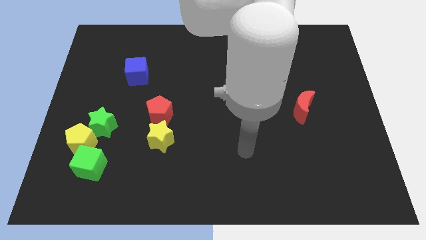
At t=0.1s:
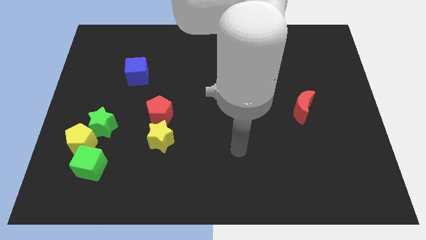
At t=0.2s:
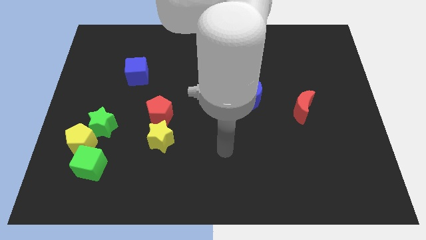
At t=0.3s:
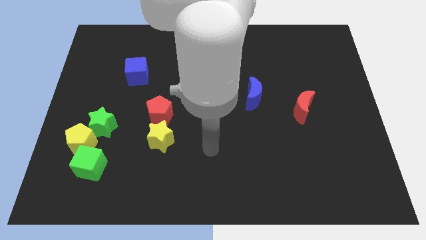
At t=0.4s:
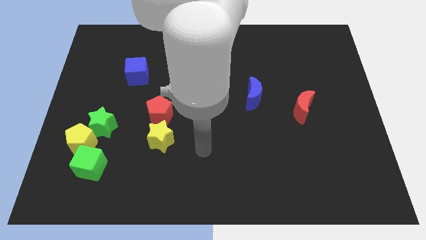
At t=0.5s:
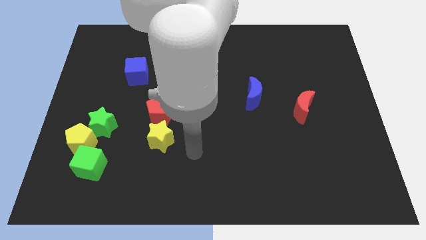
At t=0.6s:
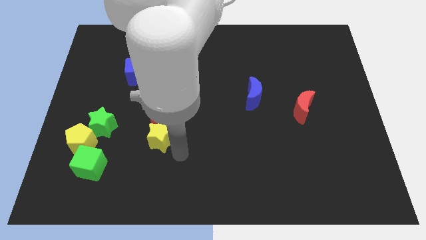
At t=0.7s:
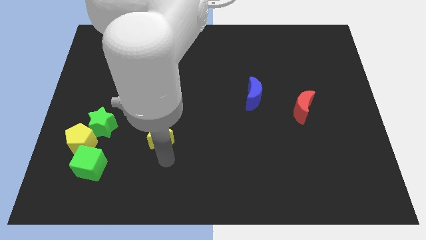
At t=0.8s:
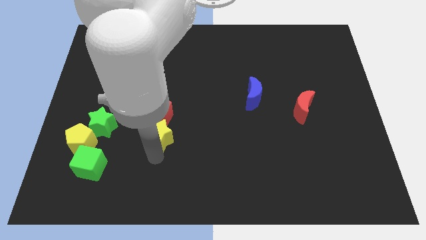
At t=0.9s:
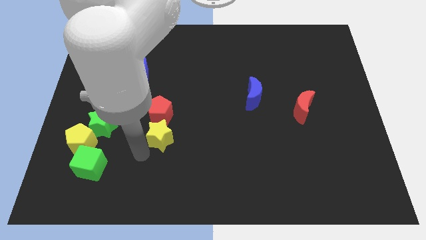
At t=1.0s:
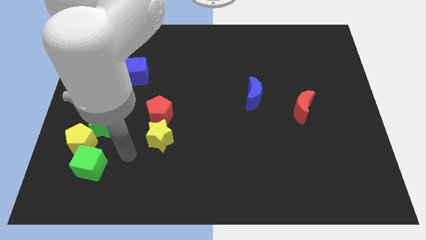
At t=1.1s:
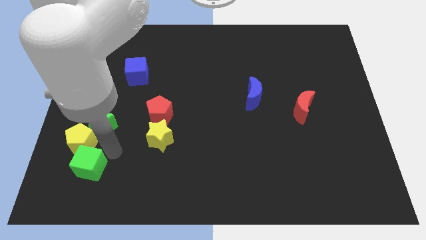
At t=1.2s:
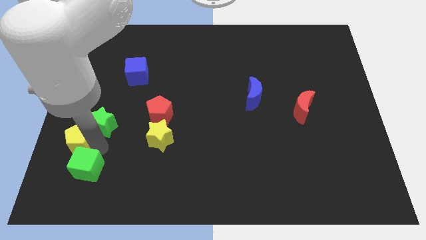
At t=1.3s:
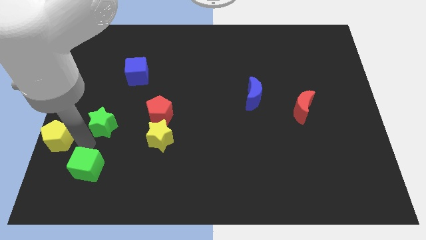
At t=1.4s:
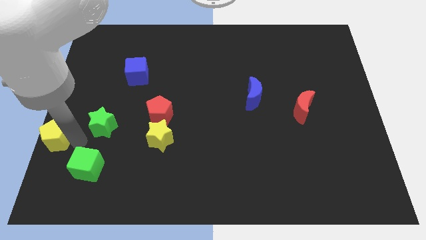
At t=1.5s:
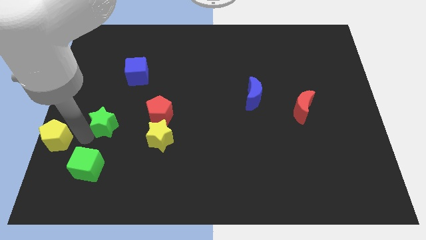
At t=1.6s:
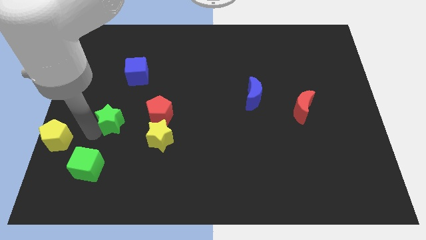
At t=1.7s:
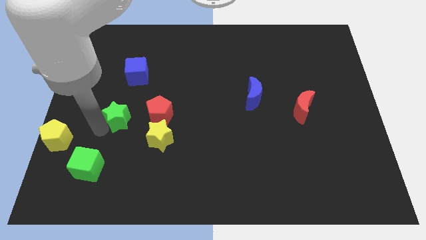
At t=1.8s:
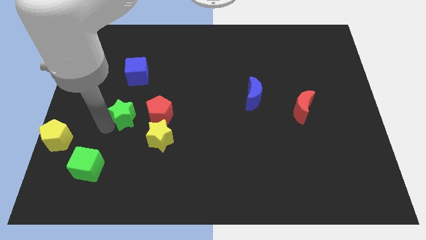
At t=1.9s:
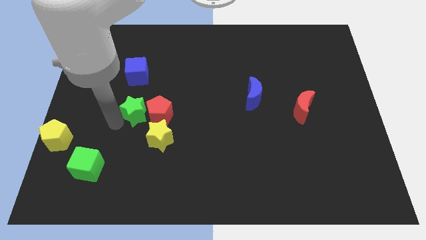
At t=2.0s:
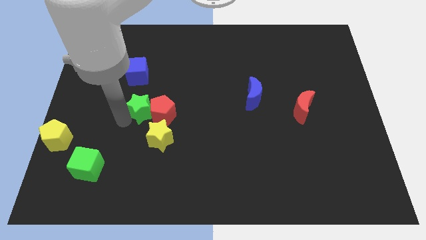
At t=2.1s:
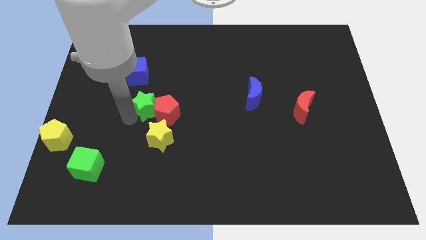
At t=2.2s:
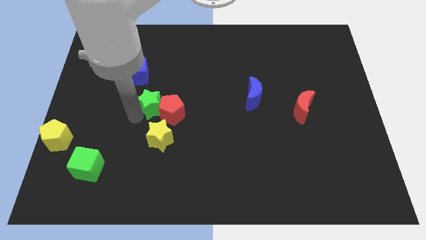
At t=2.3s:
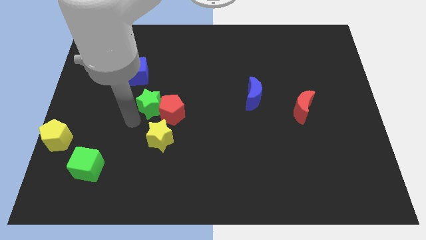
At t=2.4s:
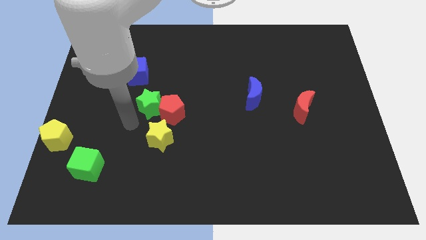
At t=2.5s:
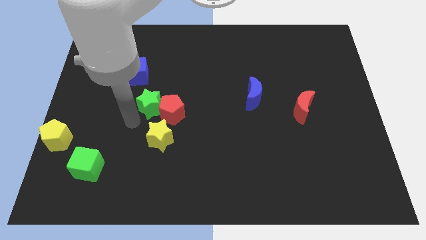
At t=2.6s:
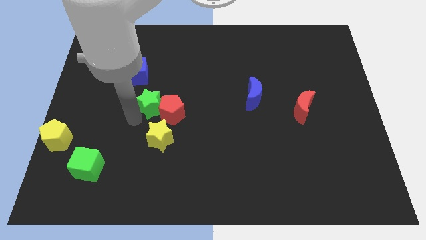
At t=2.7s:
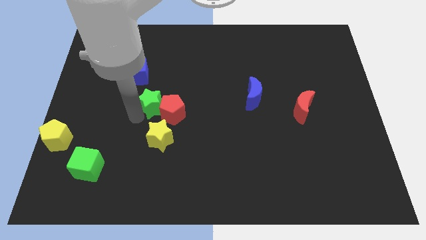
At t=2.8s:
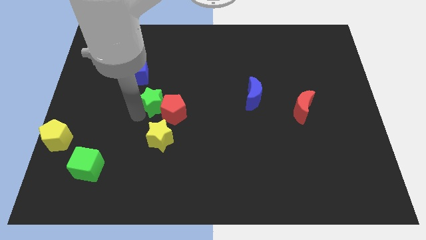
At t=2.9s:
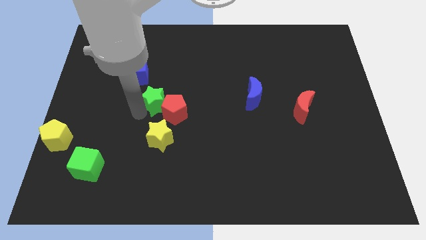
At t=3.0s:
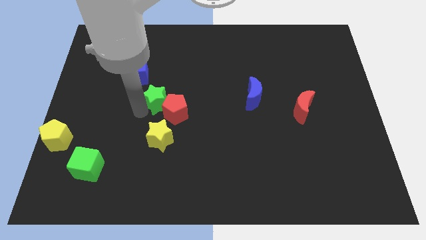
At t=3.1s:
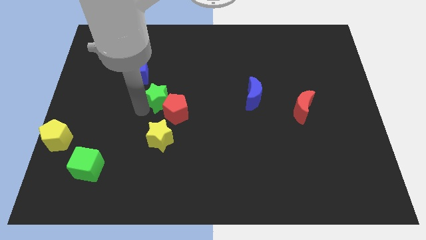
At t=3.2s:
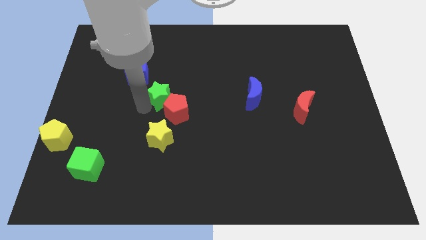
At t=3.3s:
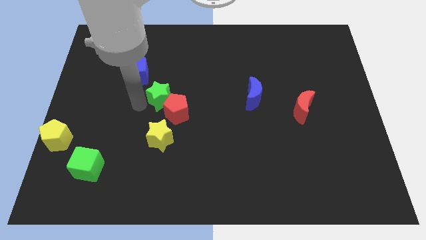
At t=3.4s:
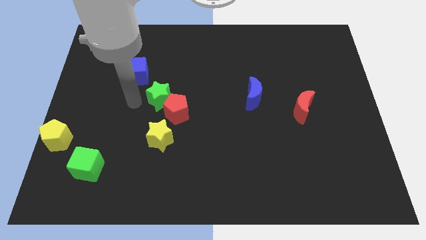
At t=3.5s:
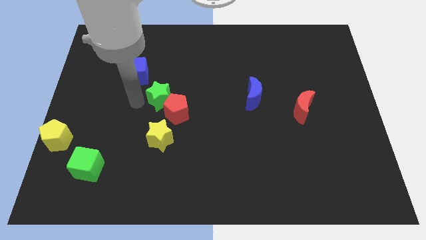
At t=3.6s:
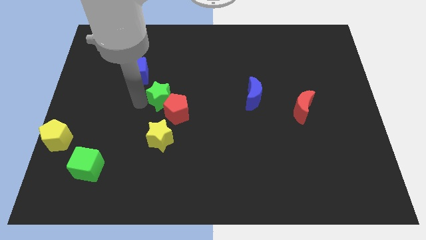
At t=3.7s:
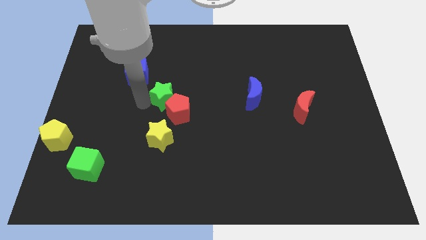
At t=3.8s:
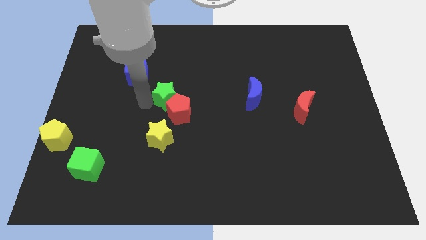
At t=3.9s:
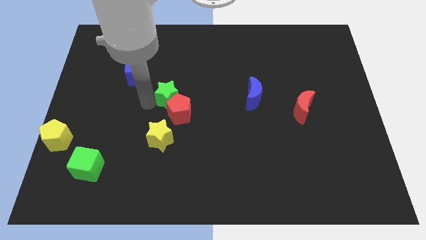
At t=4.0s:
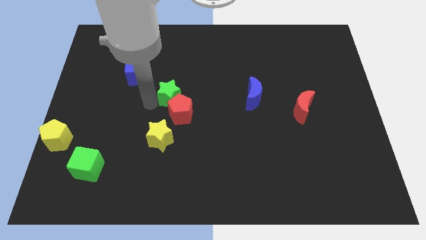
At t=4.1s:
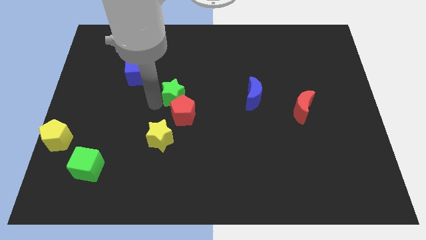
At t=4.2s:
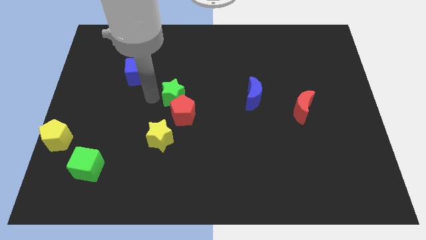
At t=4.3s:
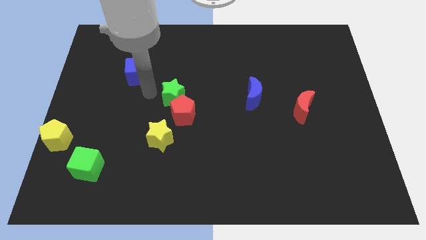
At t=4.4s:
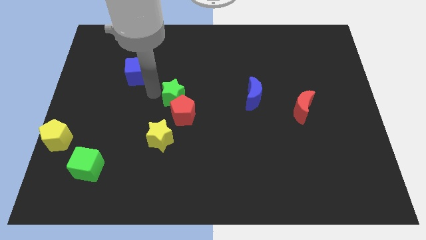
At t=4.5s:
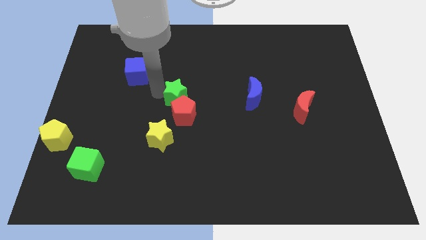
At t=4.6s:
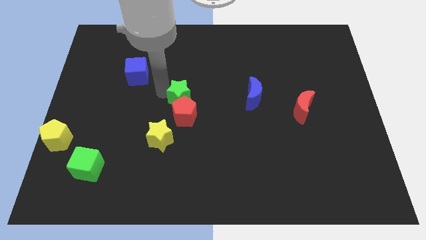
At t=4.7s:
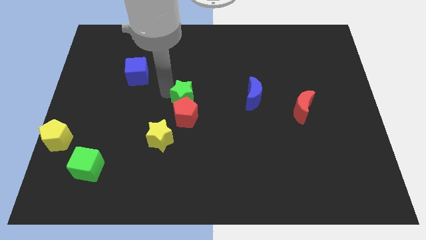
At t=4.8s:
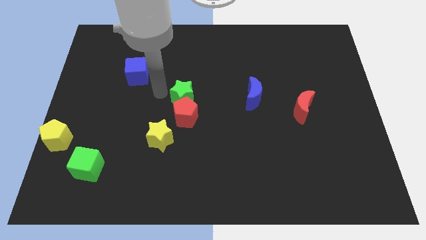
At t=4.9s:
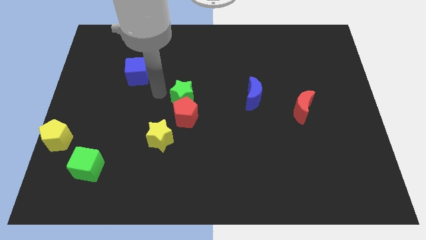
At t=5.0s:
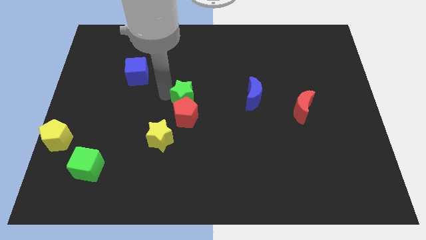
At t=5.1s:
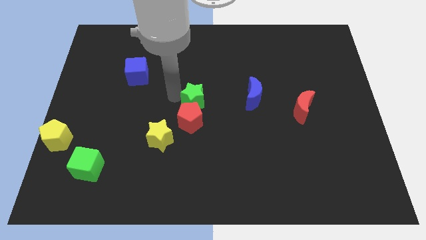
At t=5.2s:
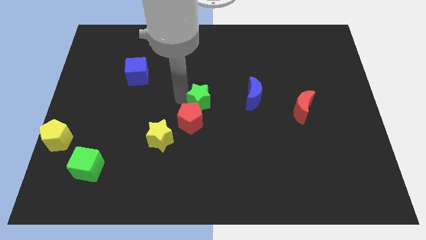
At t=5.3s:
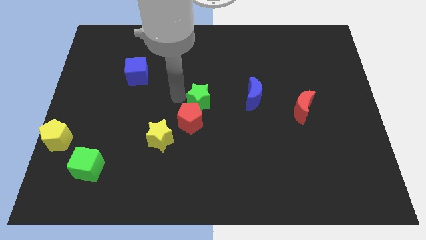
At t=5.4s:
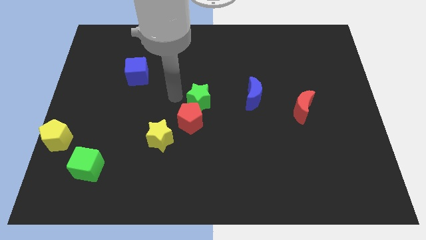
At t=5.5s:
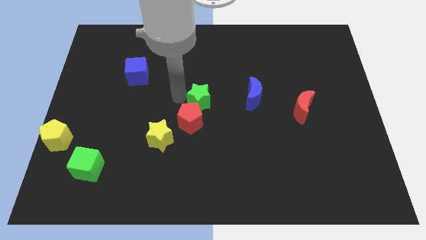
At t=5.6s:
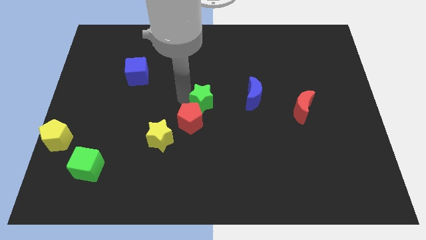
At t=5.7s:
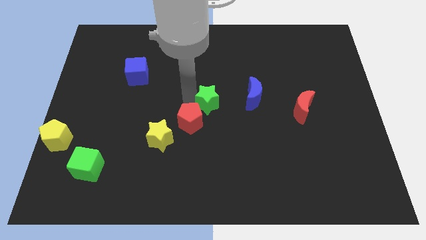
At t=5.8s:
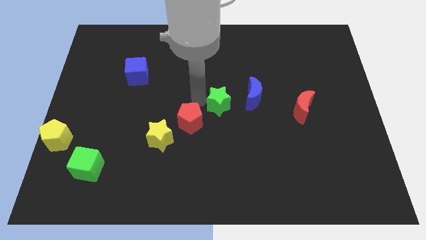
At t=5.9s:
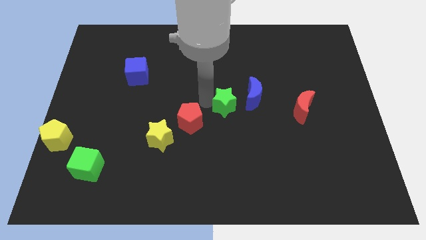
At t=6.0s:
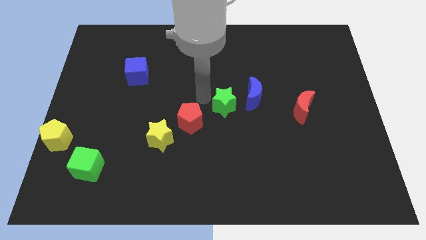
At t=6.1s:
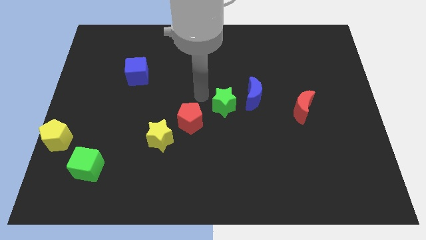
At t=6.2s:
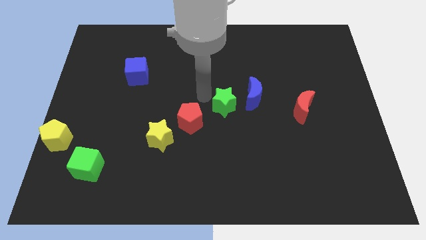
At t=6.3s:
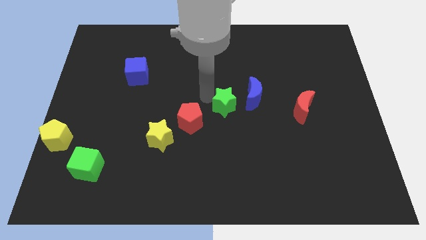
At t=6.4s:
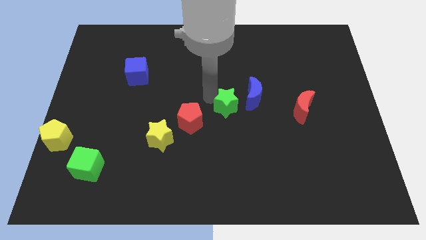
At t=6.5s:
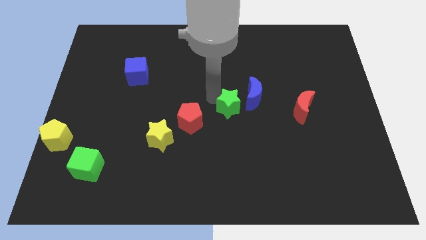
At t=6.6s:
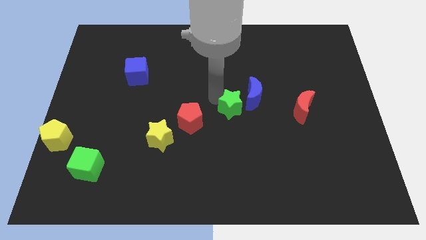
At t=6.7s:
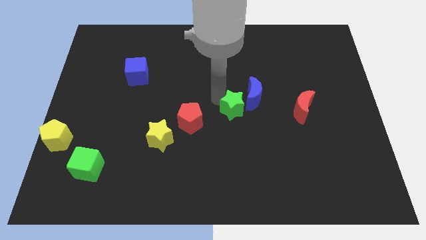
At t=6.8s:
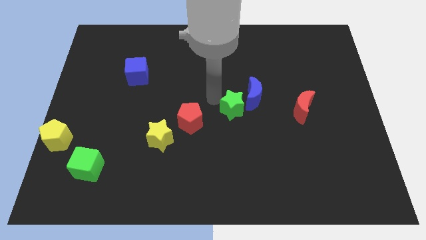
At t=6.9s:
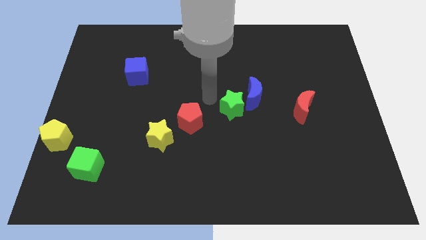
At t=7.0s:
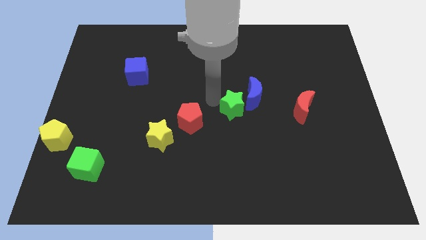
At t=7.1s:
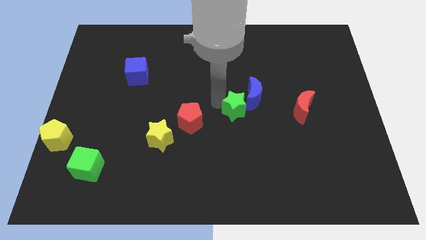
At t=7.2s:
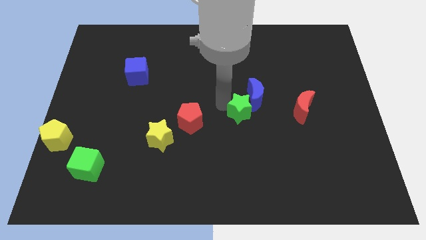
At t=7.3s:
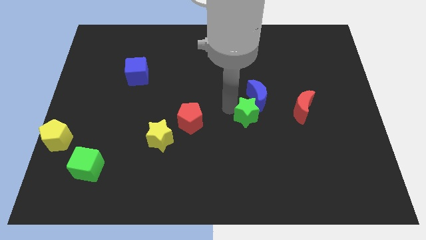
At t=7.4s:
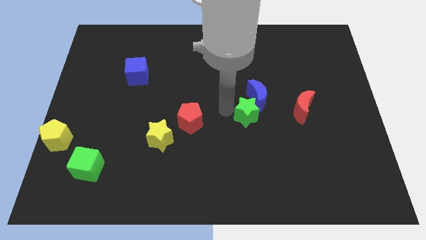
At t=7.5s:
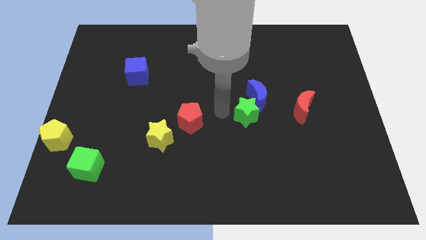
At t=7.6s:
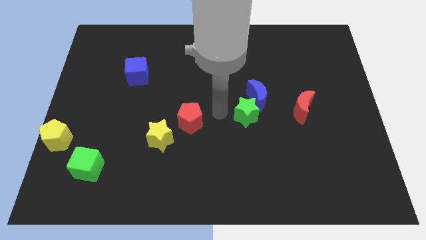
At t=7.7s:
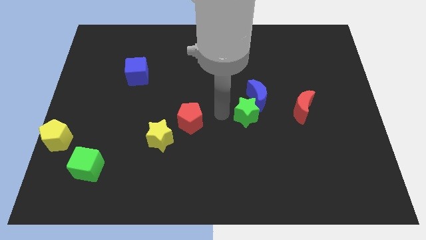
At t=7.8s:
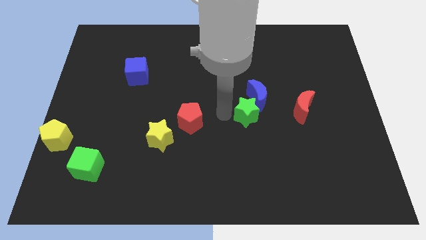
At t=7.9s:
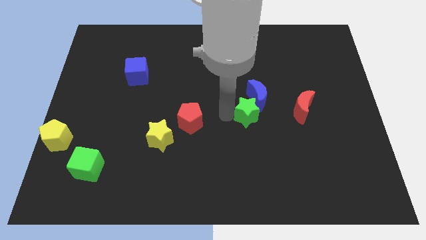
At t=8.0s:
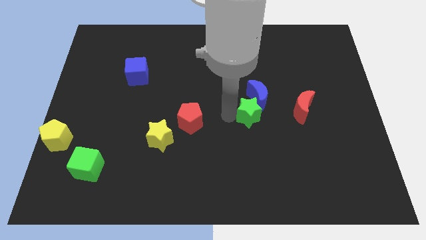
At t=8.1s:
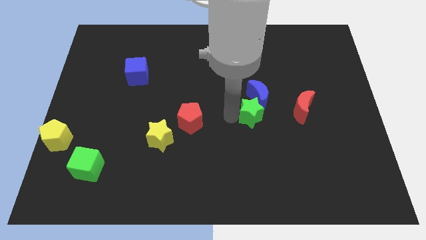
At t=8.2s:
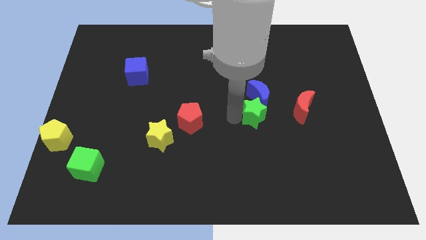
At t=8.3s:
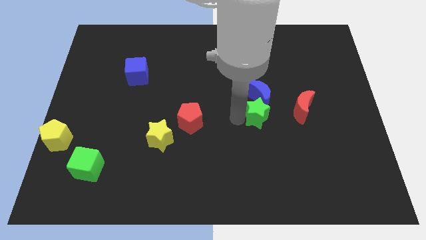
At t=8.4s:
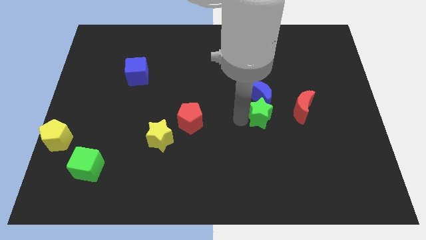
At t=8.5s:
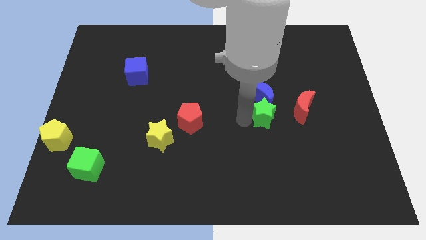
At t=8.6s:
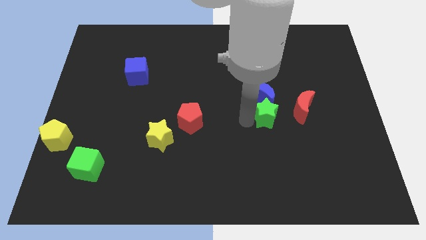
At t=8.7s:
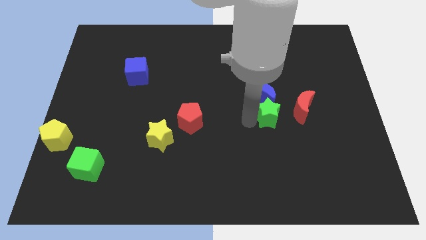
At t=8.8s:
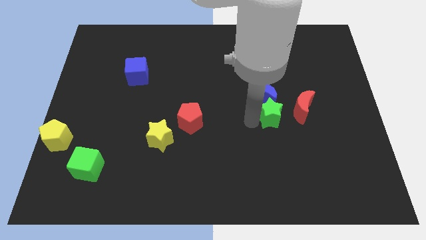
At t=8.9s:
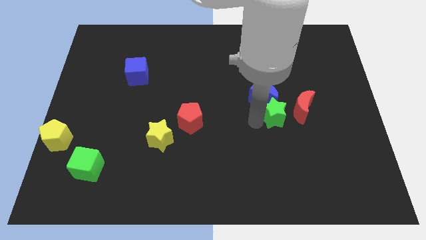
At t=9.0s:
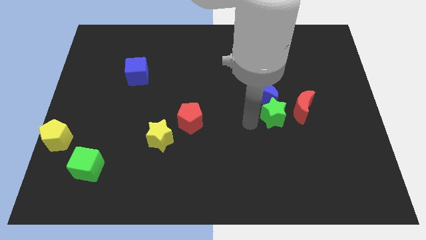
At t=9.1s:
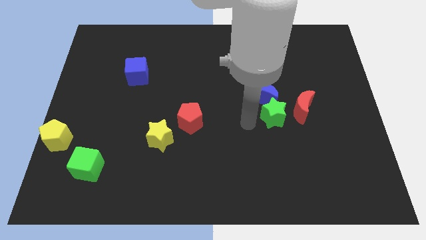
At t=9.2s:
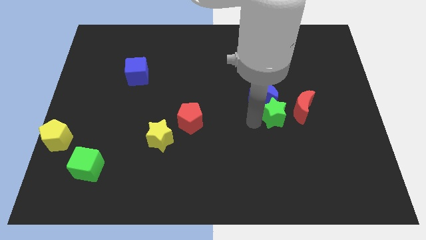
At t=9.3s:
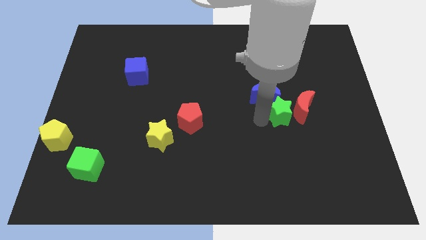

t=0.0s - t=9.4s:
put the green star to the red moon
